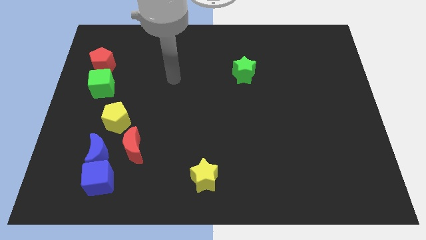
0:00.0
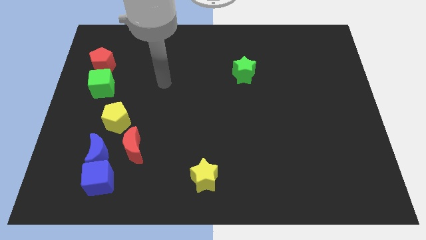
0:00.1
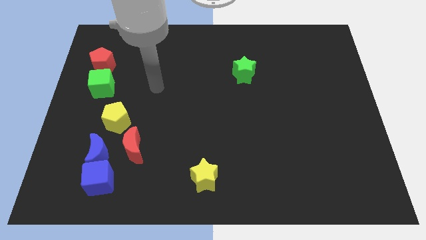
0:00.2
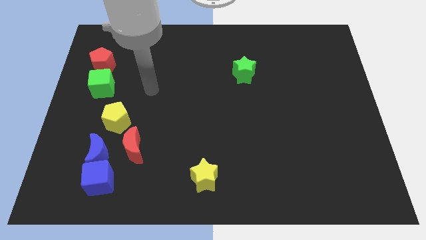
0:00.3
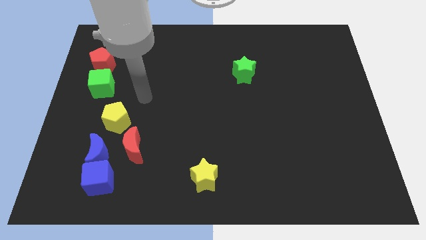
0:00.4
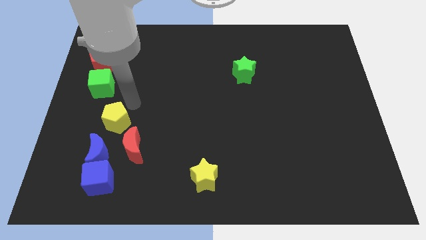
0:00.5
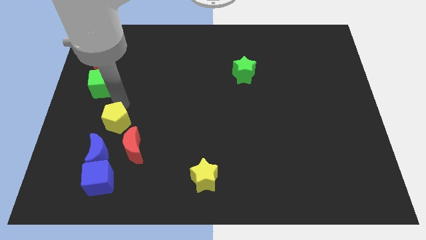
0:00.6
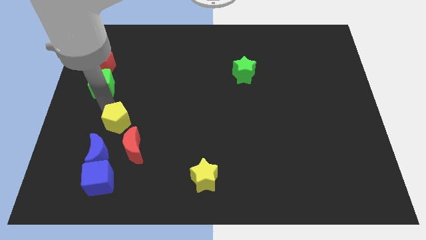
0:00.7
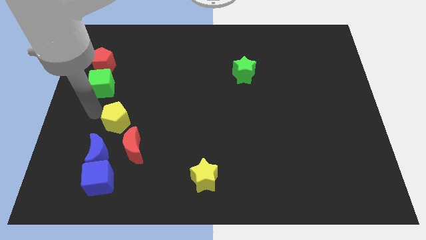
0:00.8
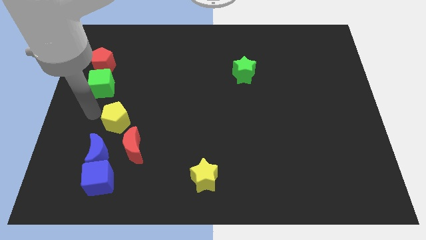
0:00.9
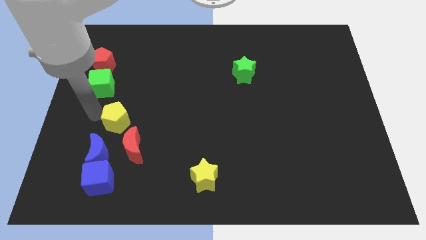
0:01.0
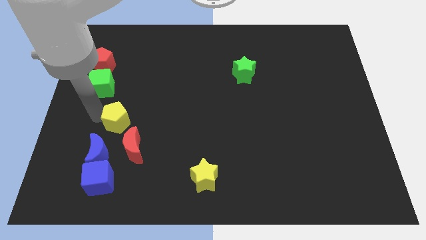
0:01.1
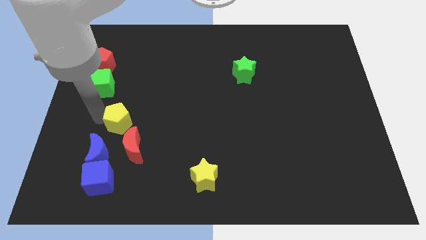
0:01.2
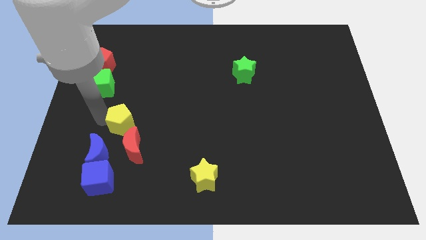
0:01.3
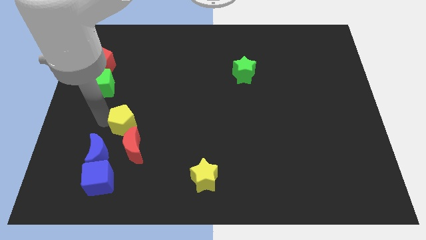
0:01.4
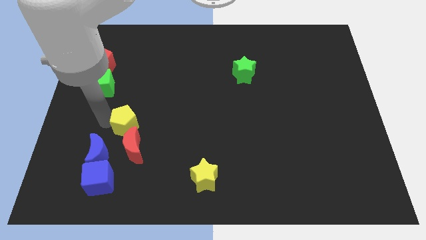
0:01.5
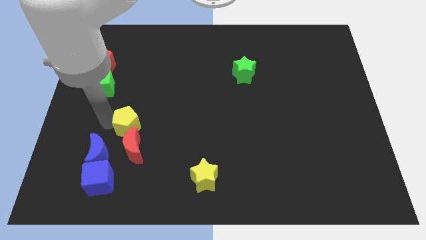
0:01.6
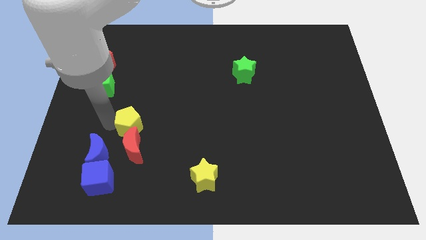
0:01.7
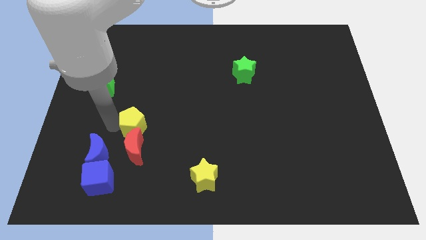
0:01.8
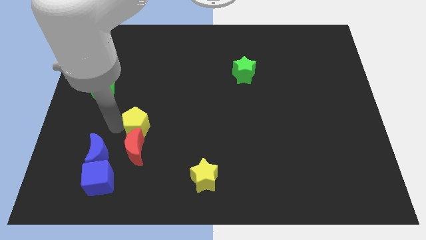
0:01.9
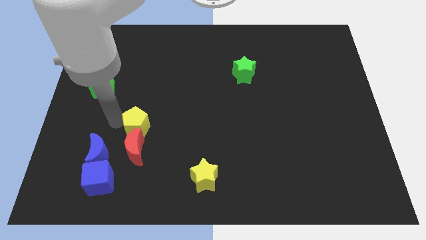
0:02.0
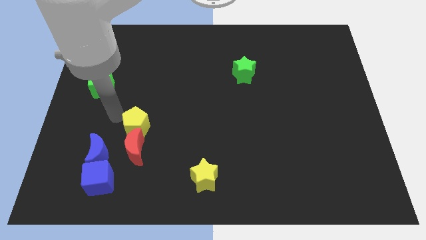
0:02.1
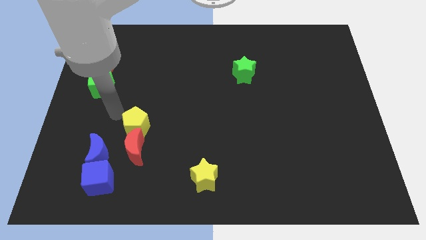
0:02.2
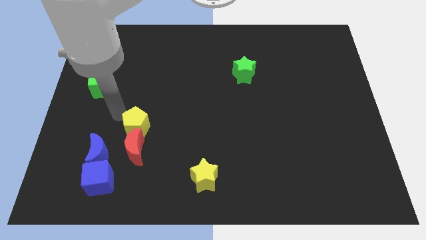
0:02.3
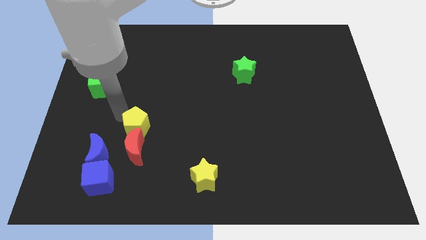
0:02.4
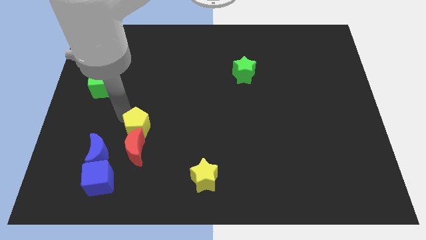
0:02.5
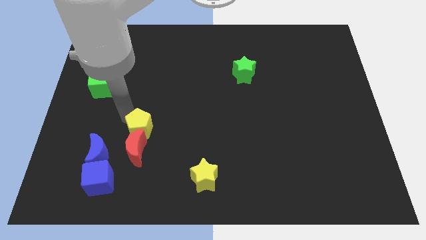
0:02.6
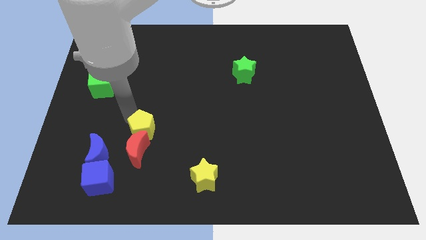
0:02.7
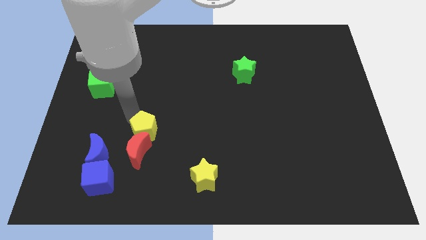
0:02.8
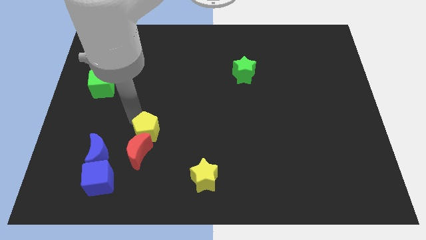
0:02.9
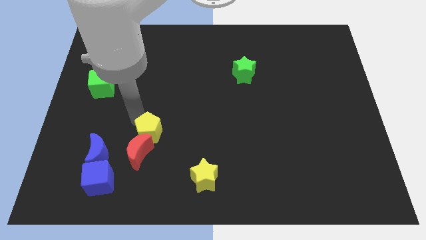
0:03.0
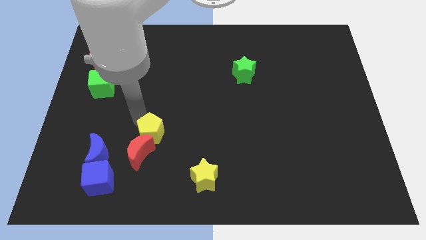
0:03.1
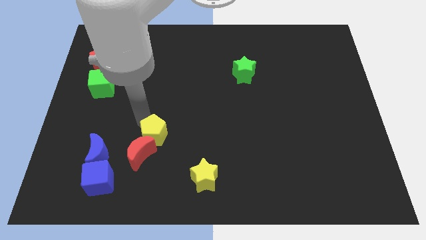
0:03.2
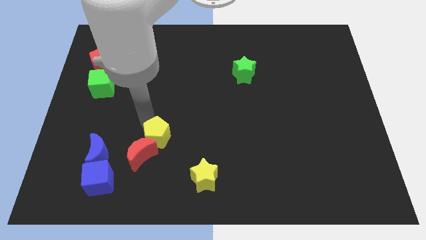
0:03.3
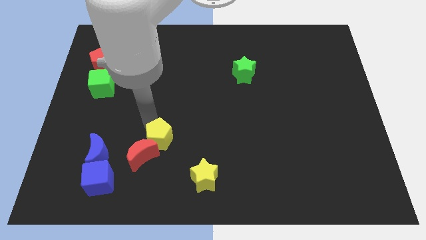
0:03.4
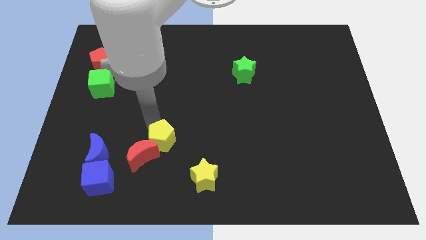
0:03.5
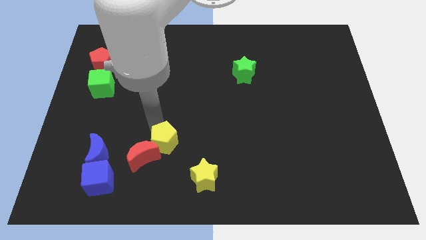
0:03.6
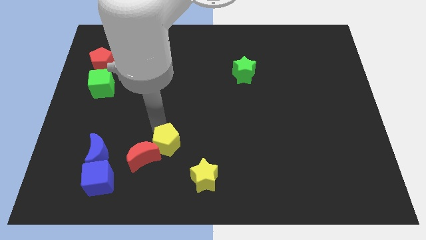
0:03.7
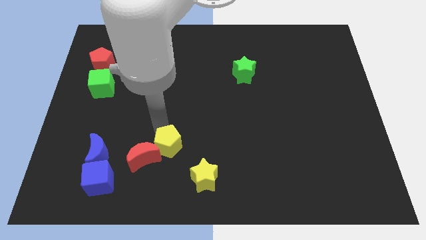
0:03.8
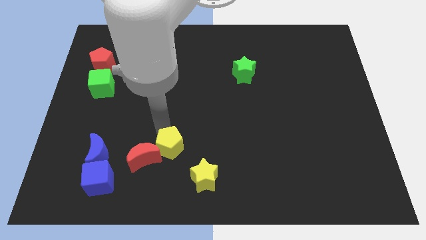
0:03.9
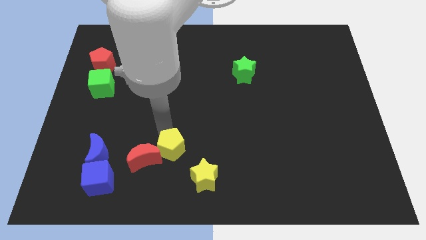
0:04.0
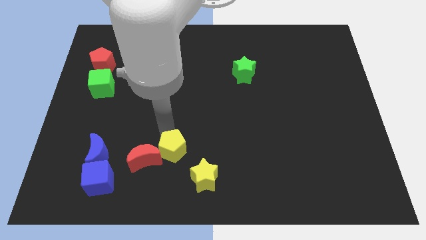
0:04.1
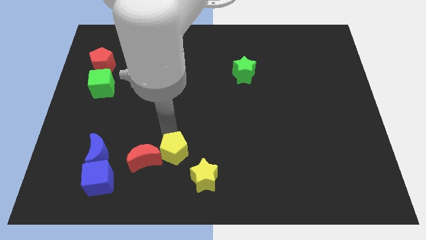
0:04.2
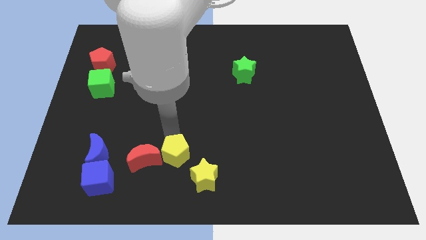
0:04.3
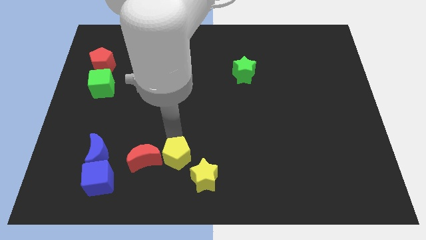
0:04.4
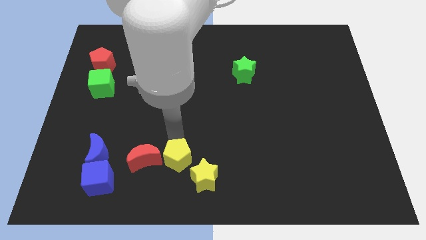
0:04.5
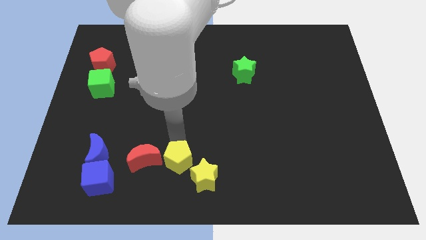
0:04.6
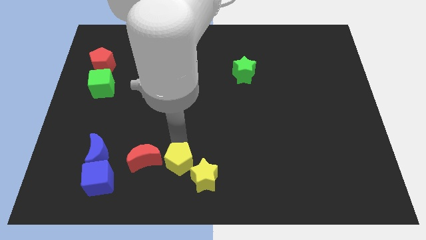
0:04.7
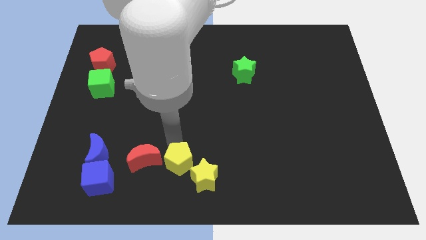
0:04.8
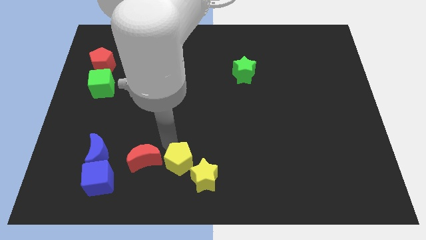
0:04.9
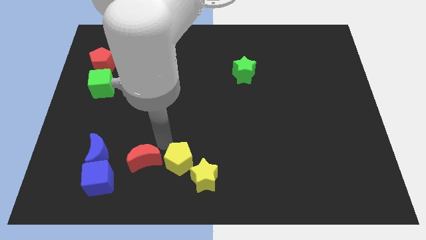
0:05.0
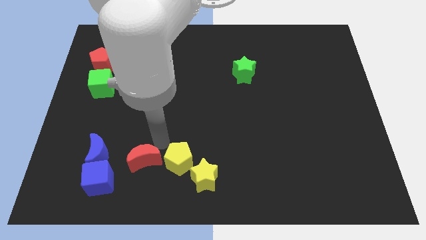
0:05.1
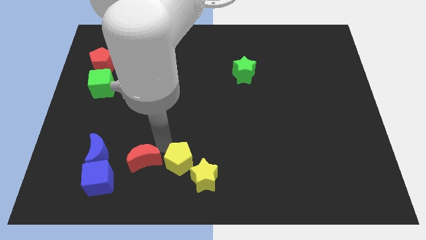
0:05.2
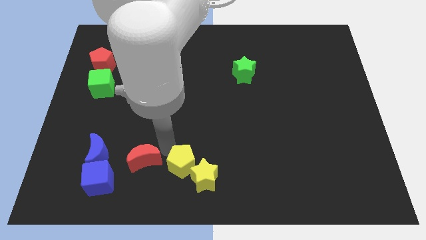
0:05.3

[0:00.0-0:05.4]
slide the yellow pentagon next to the yellow star

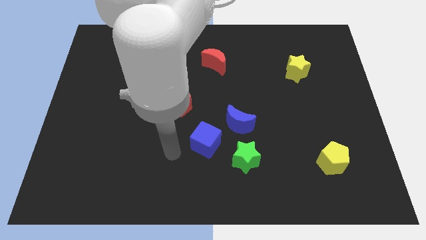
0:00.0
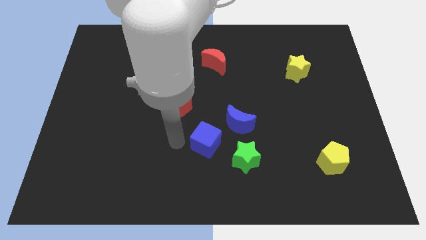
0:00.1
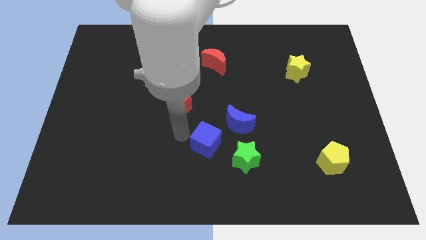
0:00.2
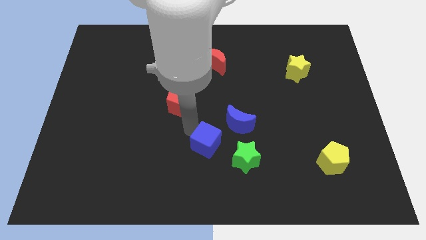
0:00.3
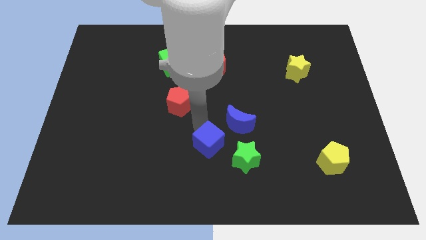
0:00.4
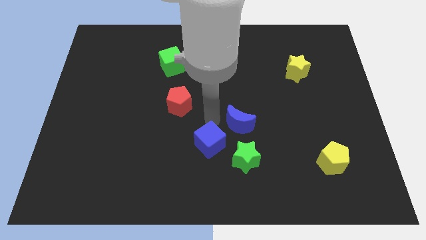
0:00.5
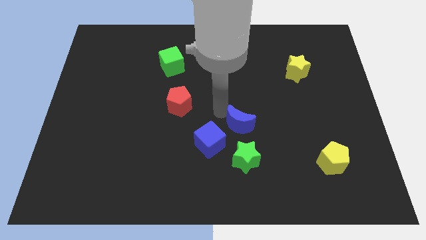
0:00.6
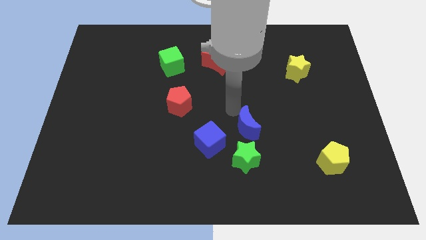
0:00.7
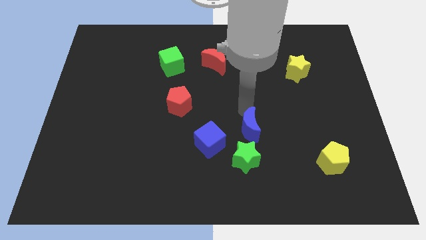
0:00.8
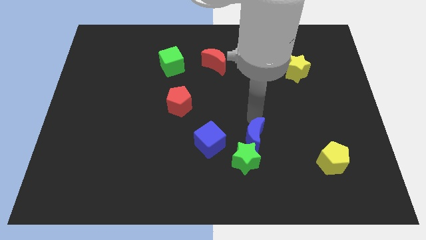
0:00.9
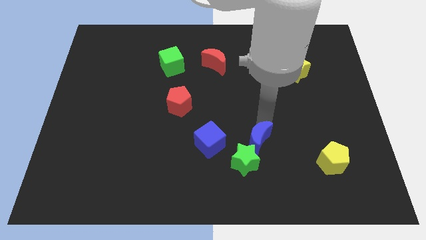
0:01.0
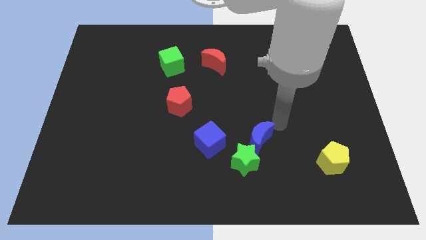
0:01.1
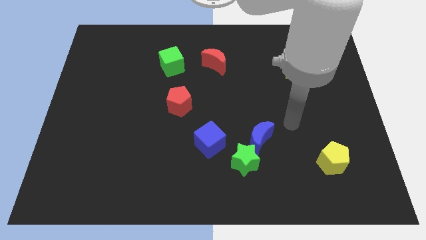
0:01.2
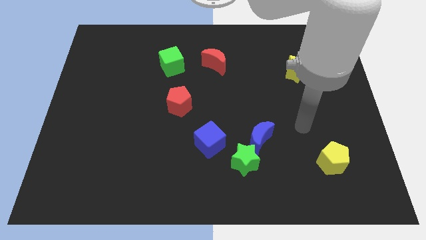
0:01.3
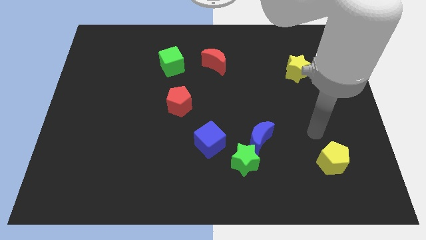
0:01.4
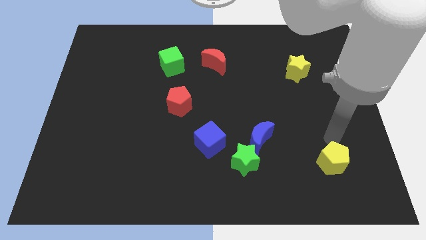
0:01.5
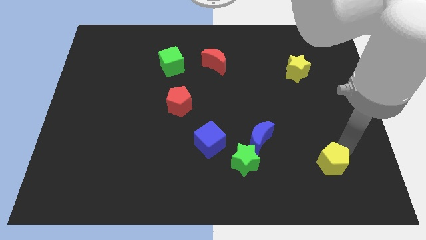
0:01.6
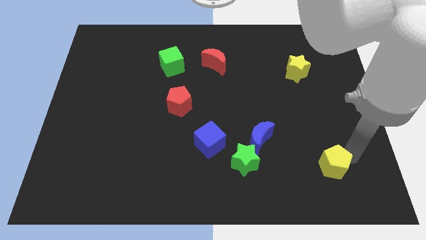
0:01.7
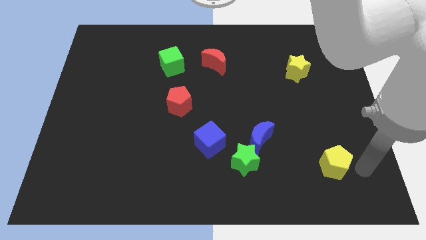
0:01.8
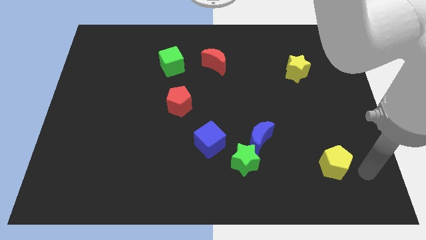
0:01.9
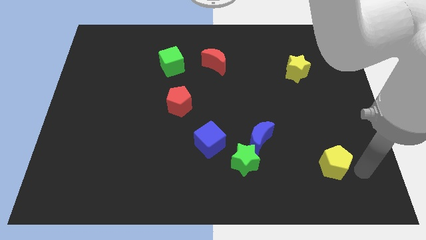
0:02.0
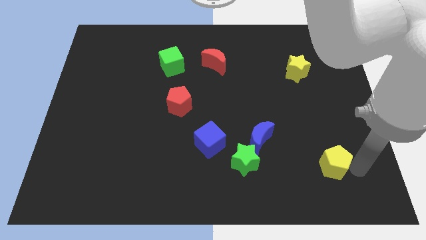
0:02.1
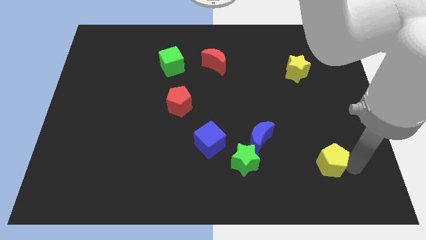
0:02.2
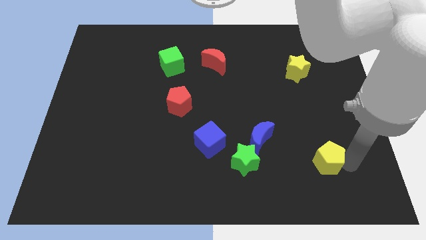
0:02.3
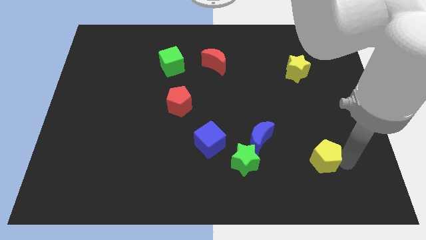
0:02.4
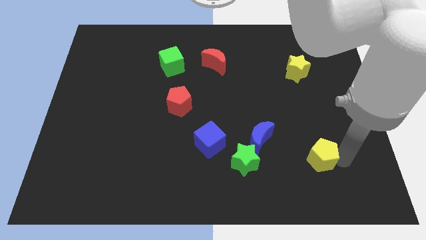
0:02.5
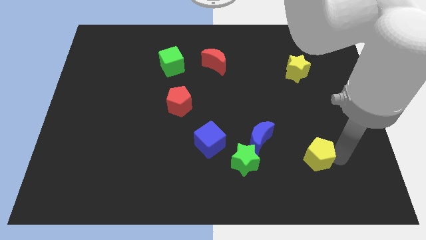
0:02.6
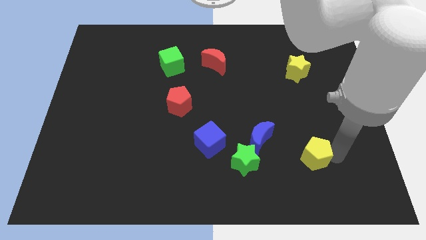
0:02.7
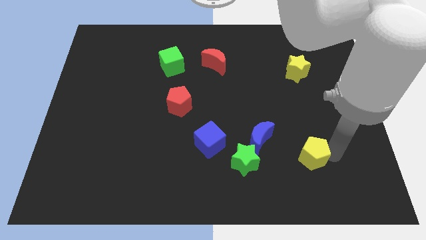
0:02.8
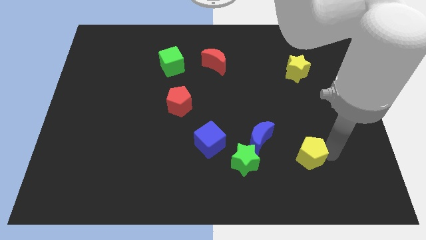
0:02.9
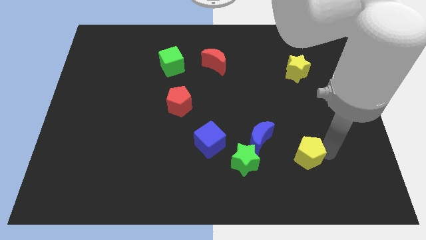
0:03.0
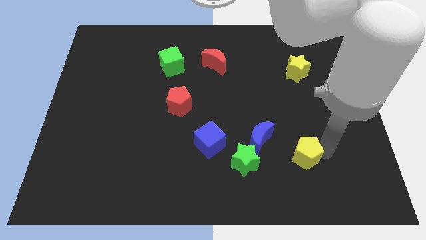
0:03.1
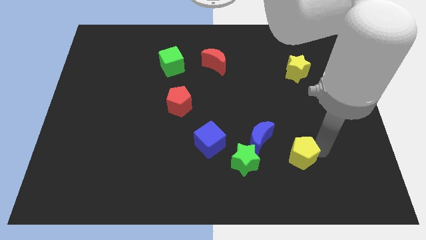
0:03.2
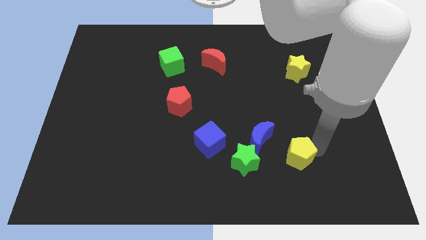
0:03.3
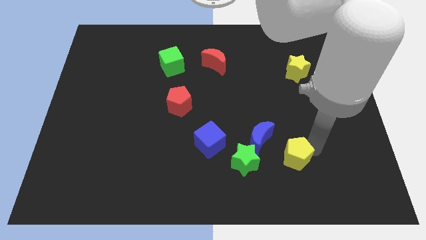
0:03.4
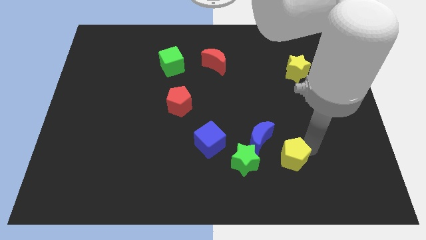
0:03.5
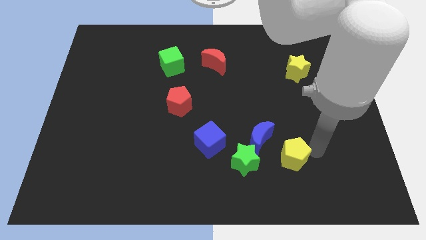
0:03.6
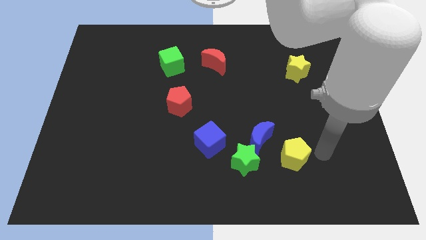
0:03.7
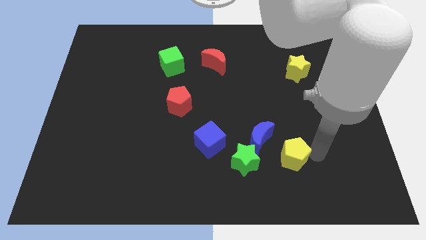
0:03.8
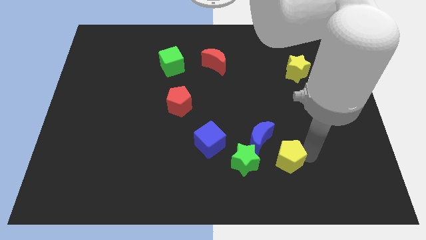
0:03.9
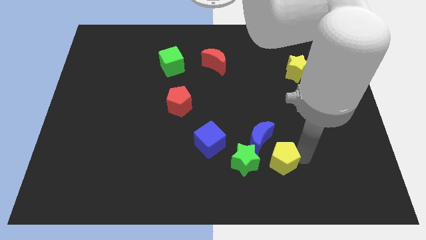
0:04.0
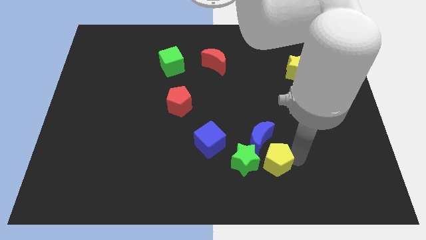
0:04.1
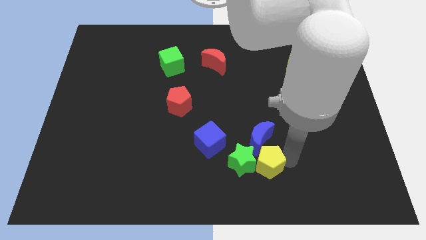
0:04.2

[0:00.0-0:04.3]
slide the yellow pentagon to the green star
